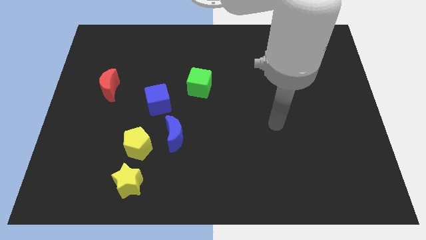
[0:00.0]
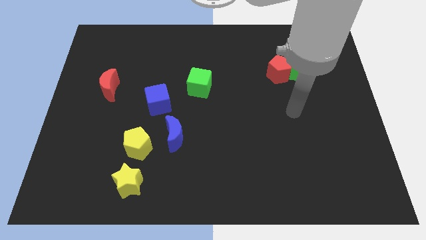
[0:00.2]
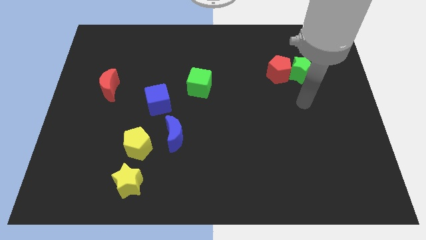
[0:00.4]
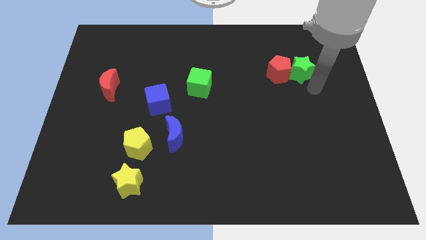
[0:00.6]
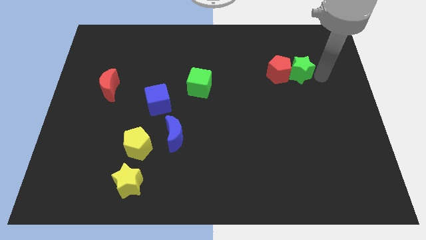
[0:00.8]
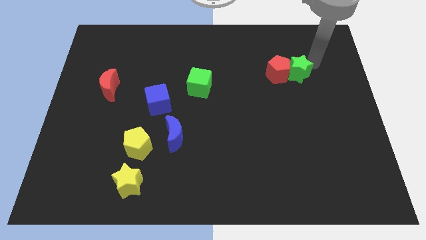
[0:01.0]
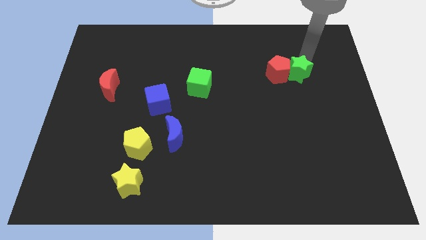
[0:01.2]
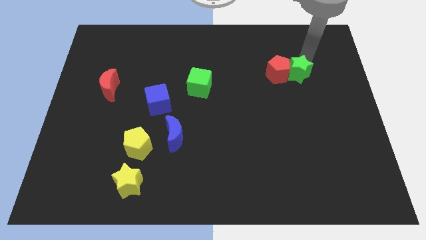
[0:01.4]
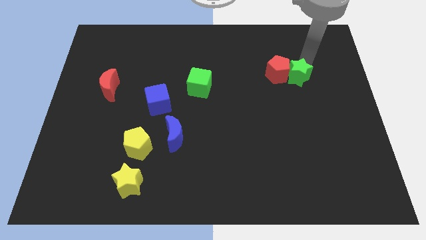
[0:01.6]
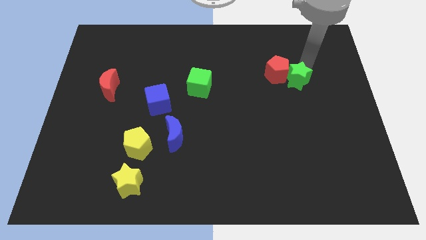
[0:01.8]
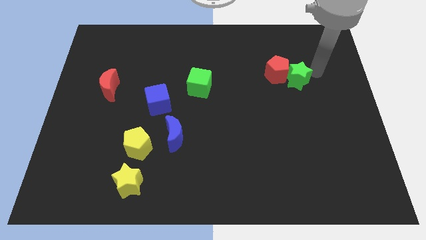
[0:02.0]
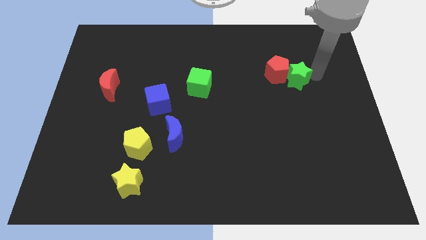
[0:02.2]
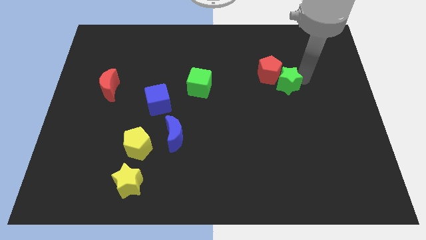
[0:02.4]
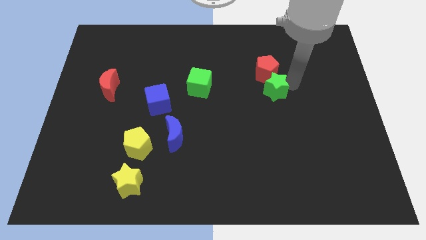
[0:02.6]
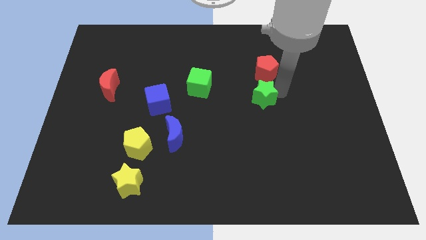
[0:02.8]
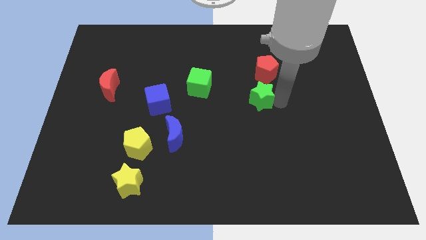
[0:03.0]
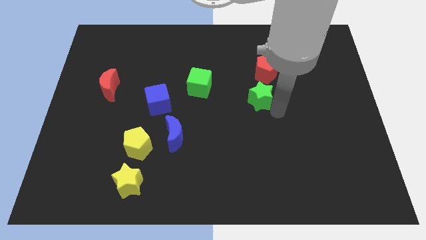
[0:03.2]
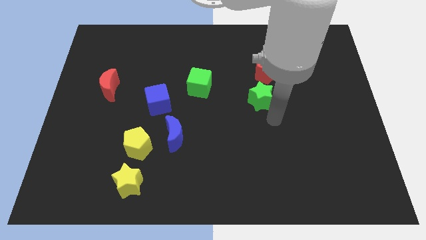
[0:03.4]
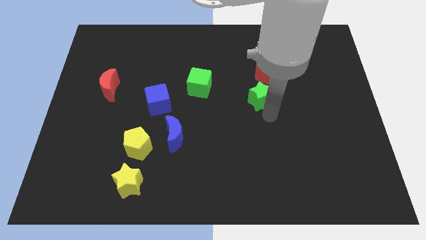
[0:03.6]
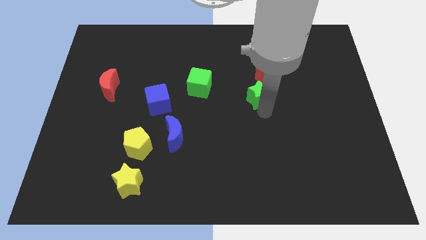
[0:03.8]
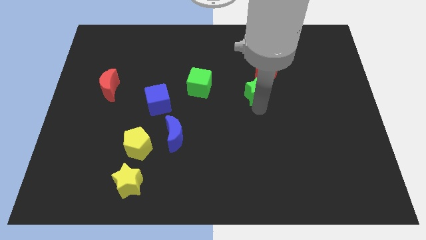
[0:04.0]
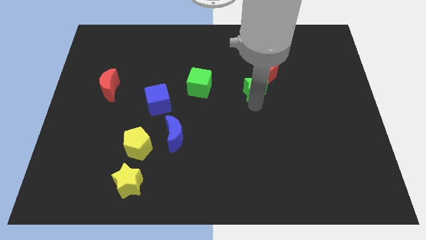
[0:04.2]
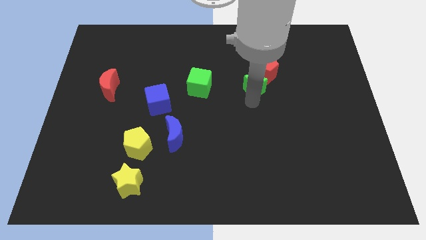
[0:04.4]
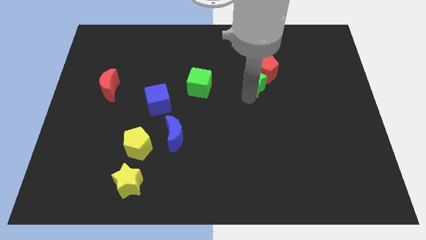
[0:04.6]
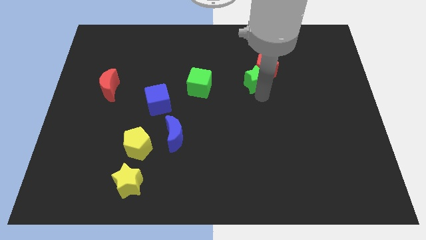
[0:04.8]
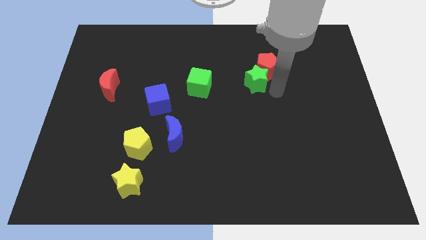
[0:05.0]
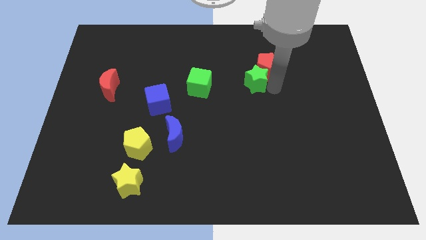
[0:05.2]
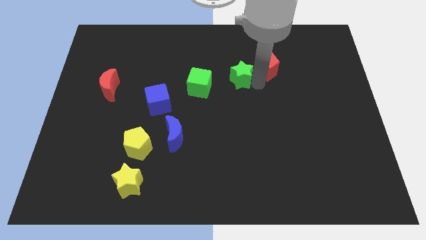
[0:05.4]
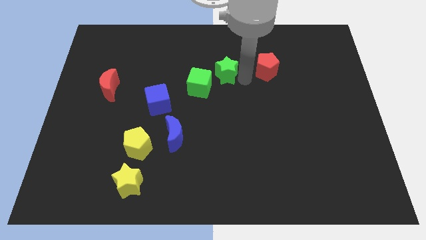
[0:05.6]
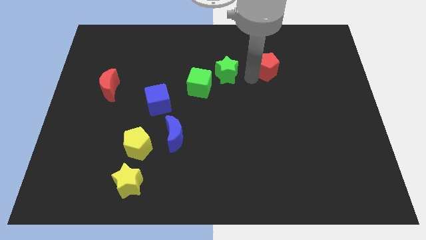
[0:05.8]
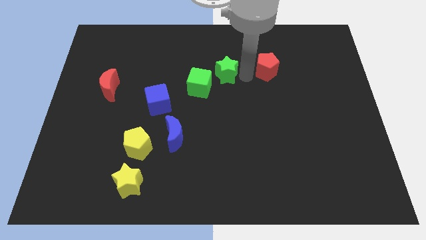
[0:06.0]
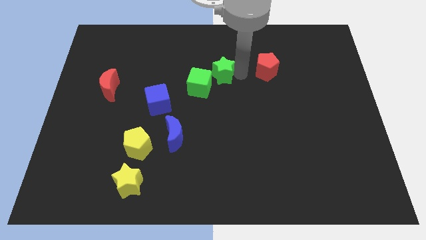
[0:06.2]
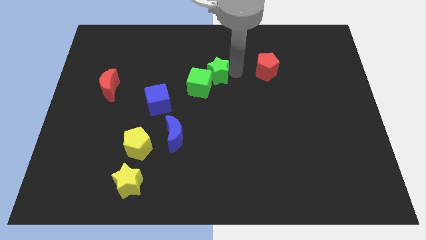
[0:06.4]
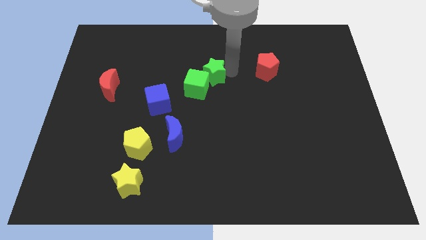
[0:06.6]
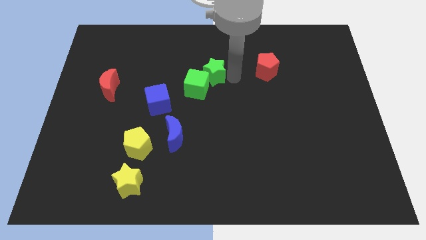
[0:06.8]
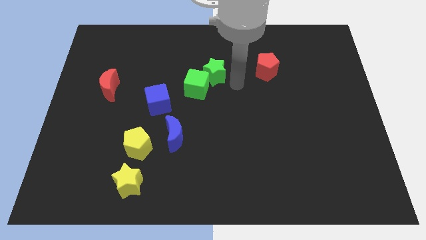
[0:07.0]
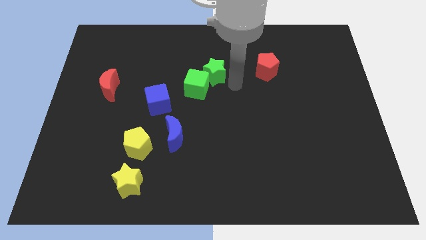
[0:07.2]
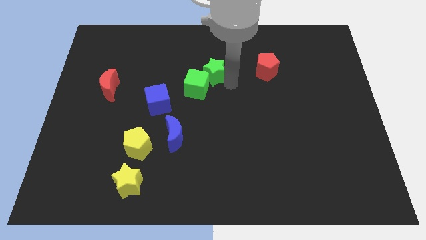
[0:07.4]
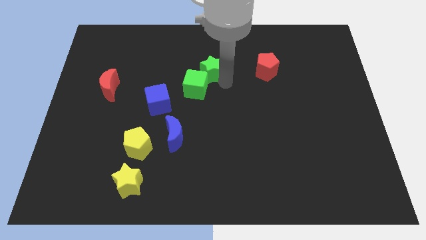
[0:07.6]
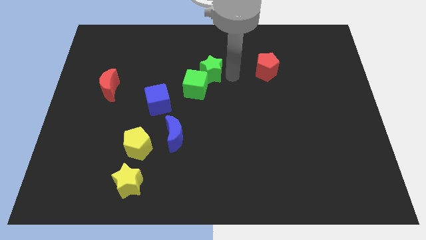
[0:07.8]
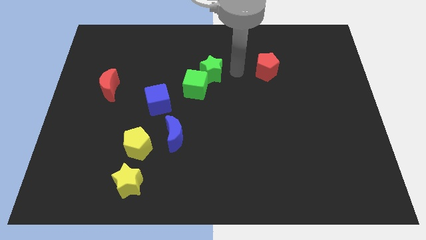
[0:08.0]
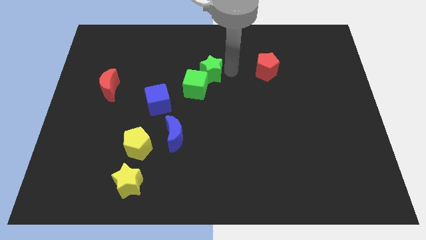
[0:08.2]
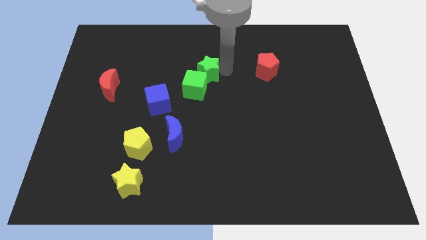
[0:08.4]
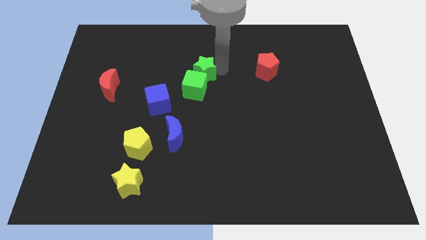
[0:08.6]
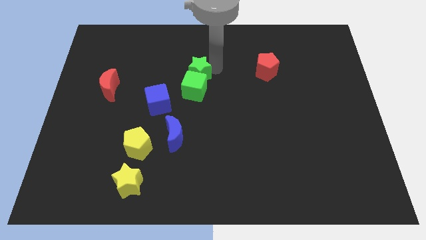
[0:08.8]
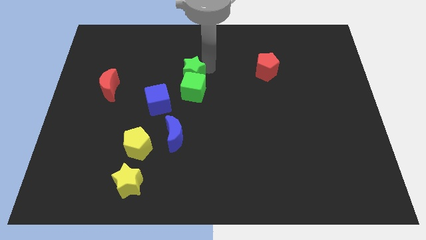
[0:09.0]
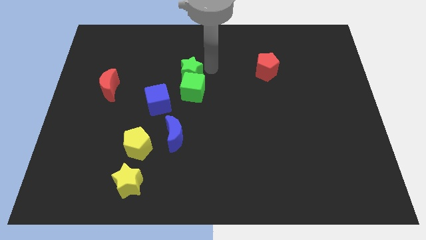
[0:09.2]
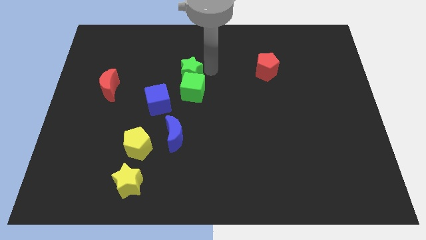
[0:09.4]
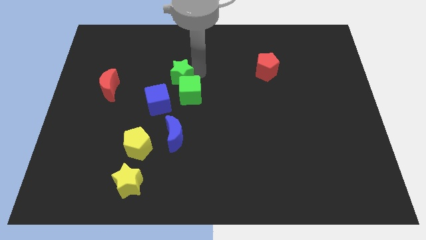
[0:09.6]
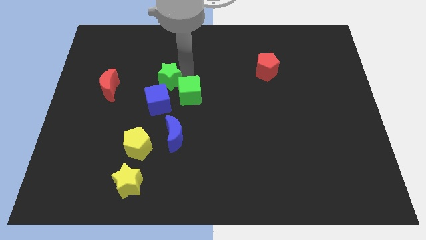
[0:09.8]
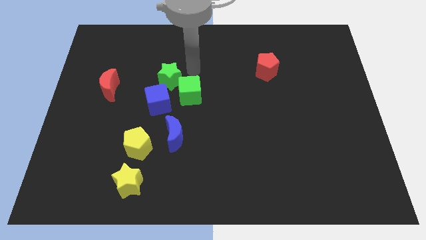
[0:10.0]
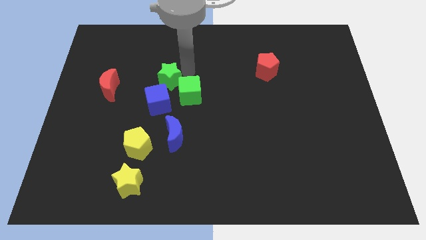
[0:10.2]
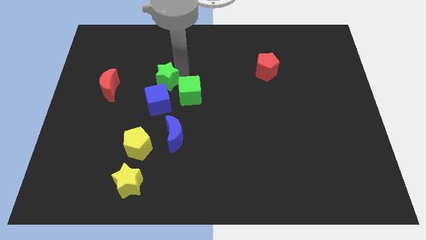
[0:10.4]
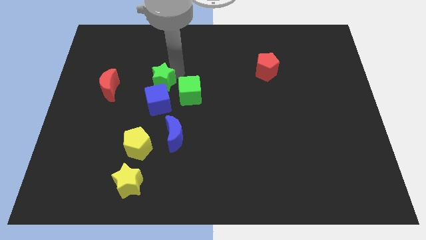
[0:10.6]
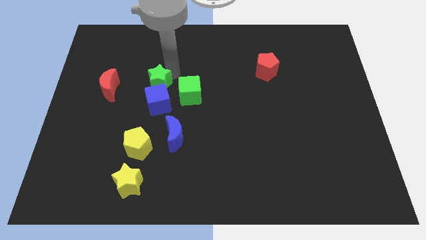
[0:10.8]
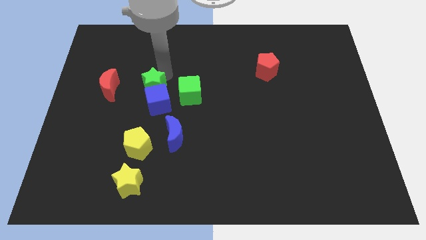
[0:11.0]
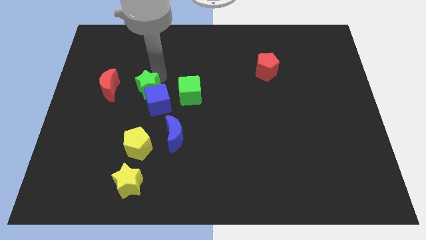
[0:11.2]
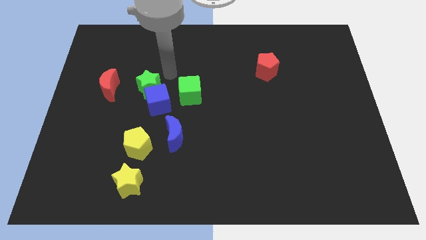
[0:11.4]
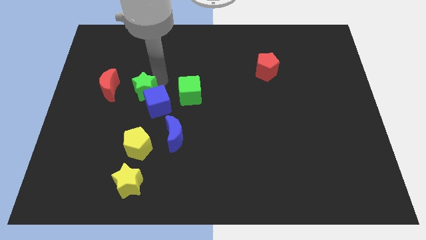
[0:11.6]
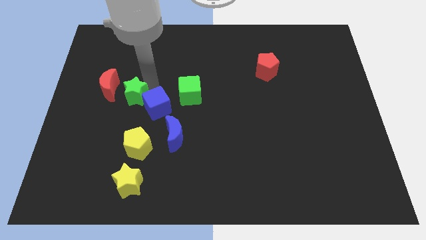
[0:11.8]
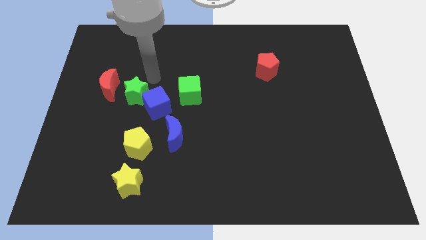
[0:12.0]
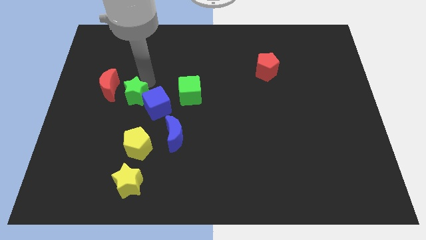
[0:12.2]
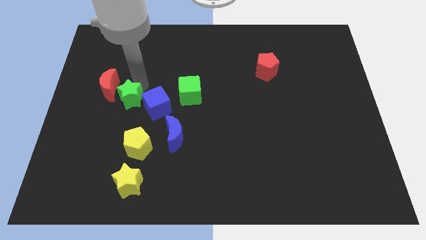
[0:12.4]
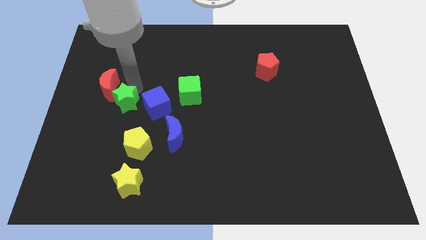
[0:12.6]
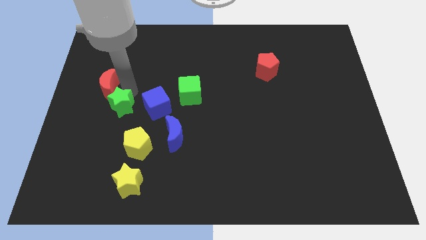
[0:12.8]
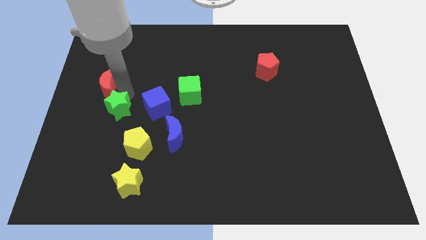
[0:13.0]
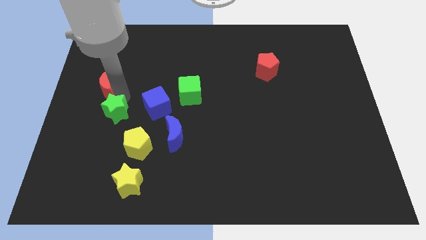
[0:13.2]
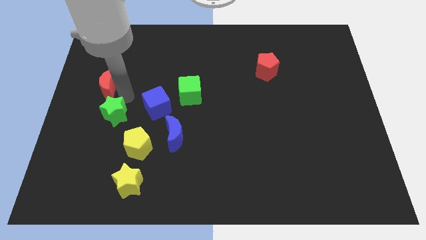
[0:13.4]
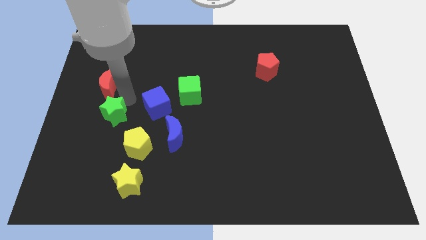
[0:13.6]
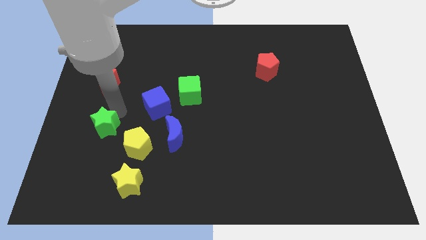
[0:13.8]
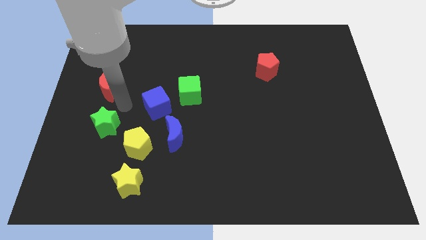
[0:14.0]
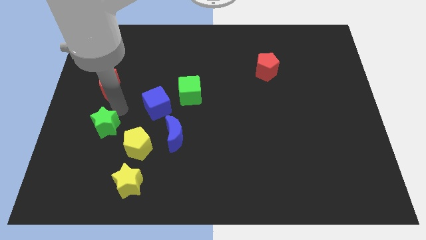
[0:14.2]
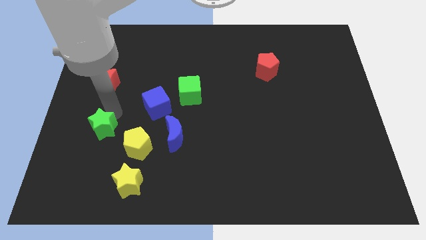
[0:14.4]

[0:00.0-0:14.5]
move the green star to the left side of the yellow pentagon
